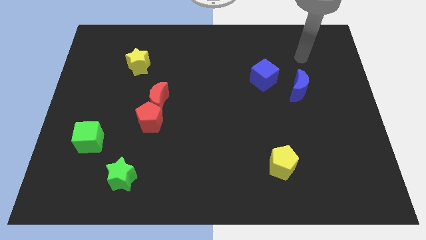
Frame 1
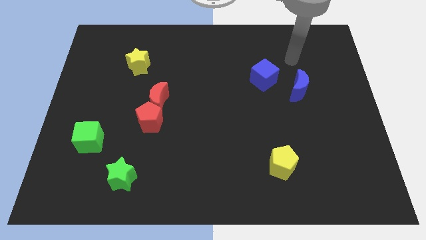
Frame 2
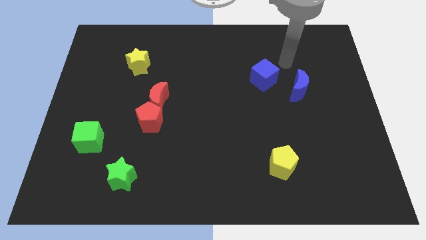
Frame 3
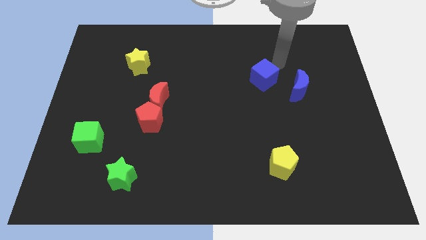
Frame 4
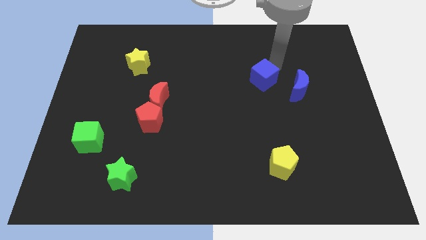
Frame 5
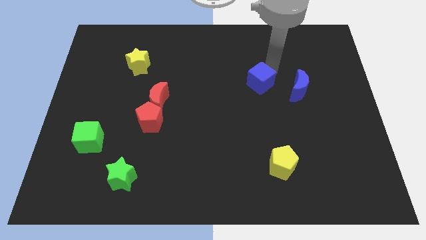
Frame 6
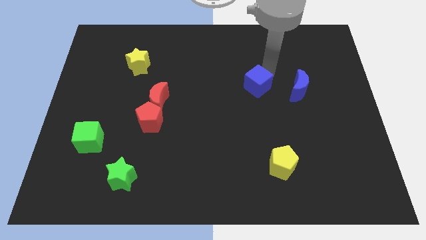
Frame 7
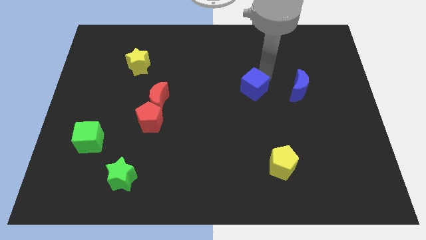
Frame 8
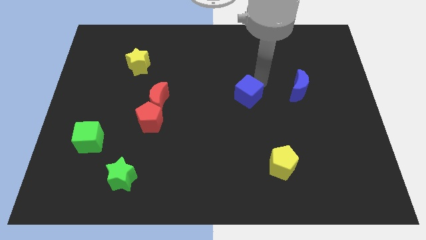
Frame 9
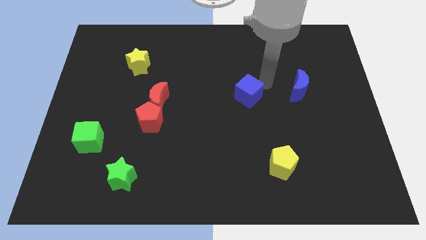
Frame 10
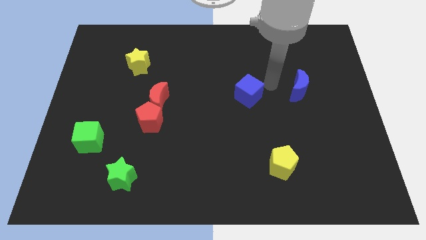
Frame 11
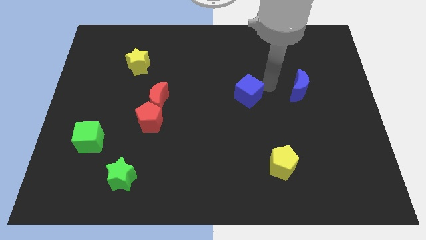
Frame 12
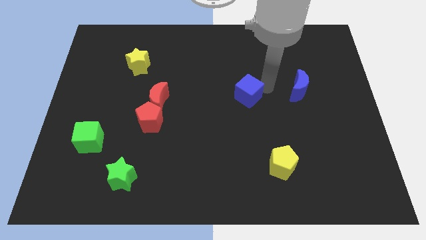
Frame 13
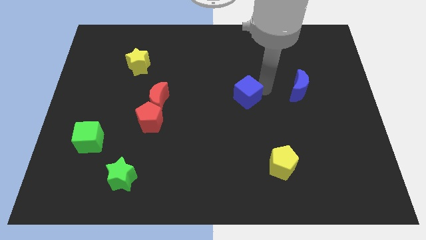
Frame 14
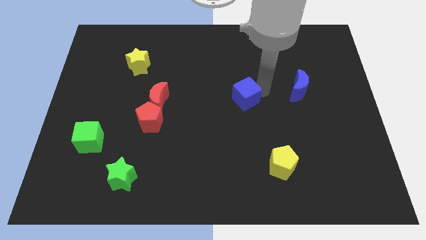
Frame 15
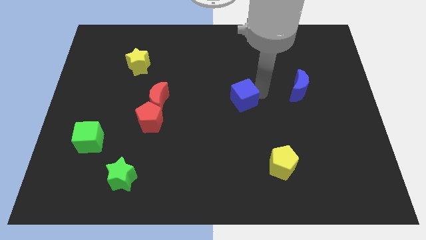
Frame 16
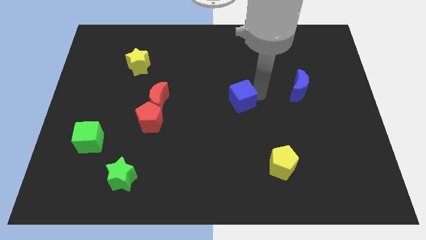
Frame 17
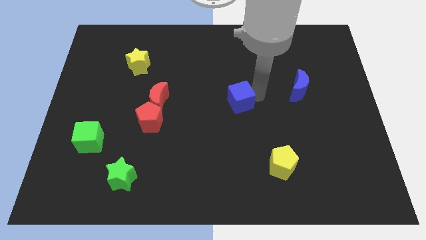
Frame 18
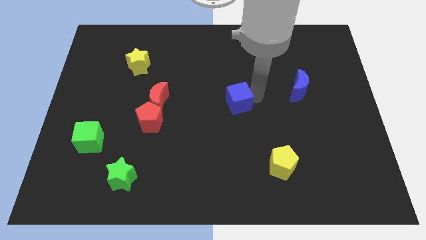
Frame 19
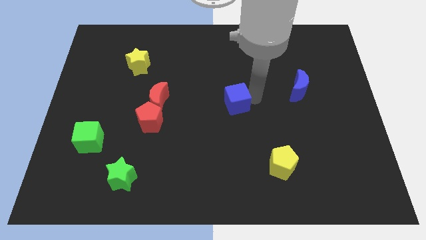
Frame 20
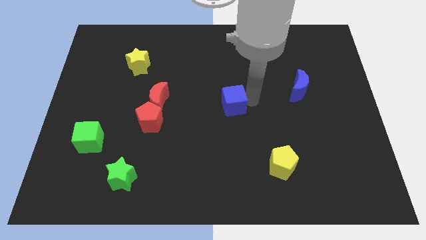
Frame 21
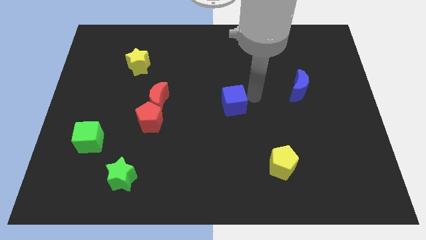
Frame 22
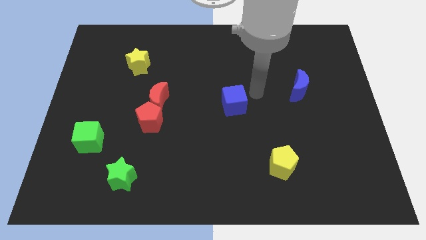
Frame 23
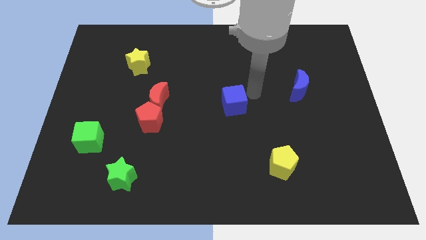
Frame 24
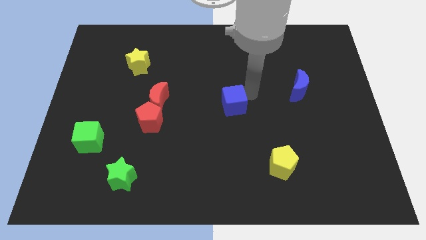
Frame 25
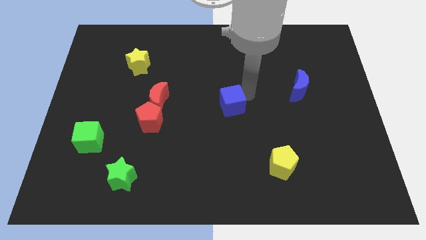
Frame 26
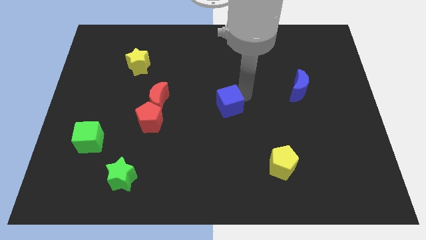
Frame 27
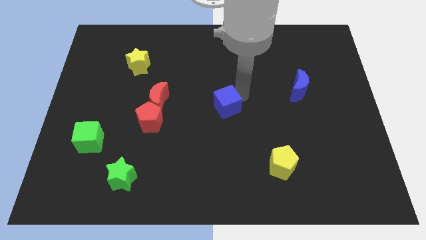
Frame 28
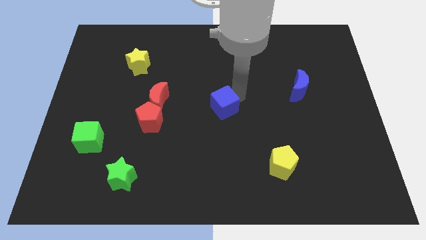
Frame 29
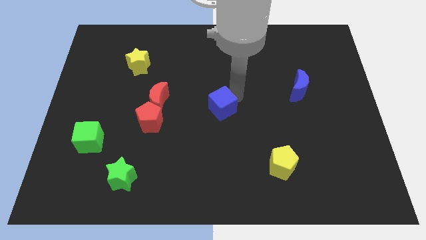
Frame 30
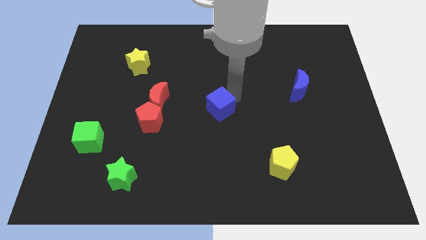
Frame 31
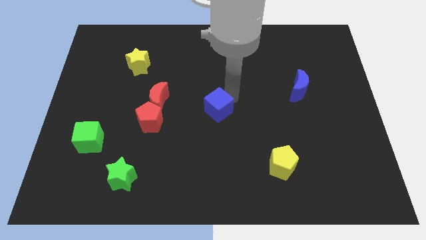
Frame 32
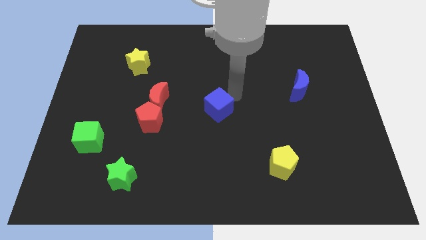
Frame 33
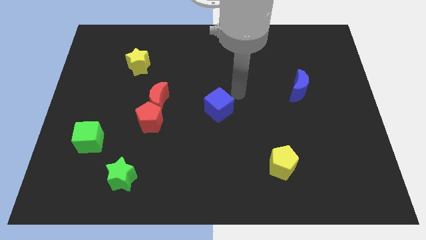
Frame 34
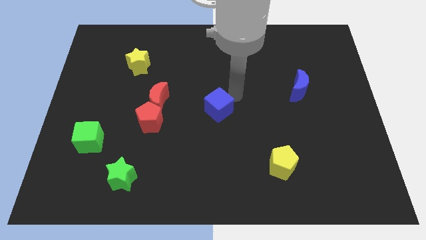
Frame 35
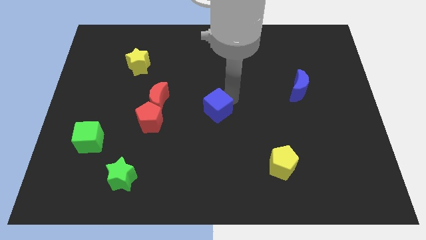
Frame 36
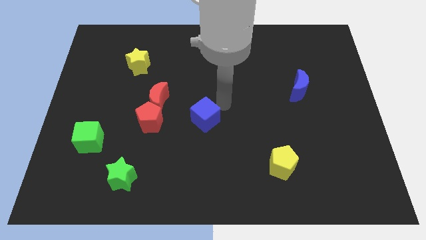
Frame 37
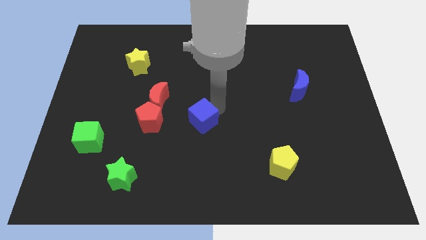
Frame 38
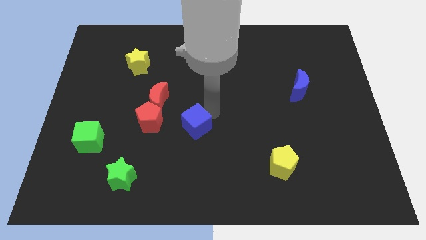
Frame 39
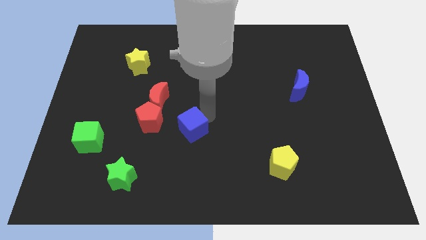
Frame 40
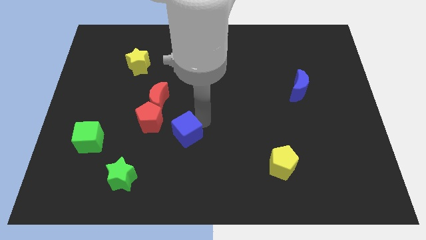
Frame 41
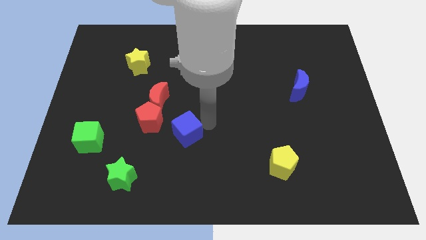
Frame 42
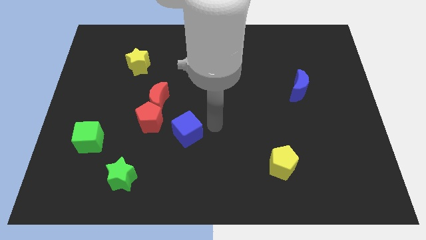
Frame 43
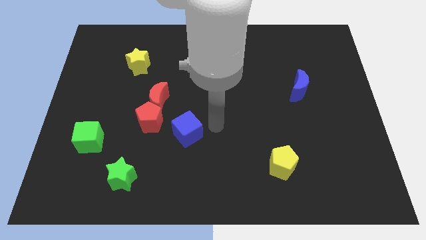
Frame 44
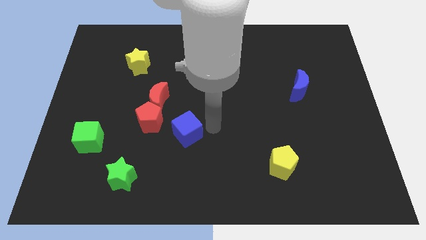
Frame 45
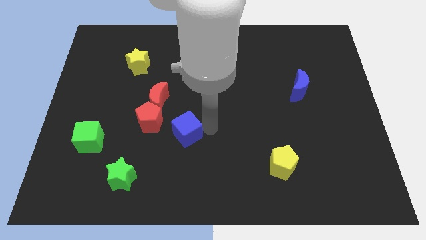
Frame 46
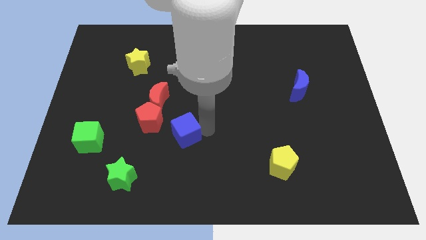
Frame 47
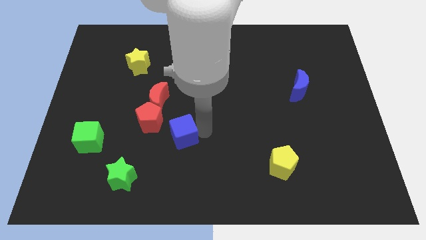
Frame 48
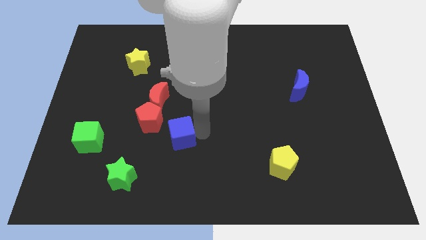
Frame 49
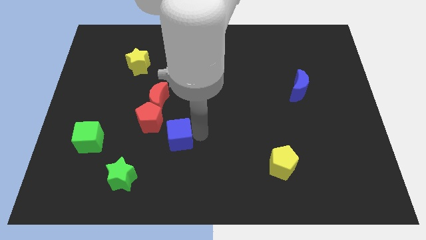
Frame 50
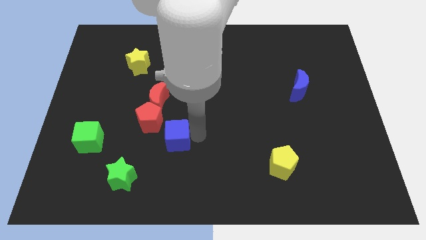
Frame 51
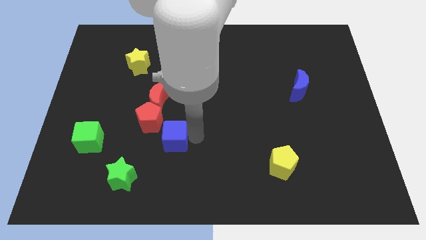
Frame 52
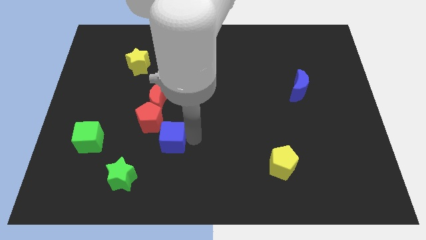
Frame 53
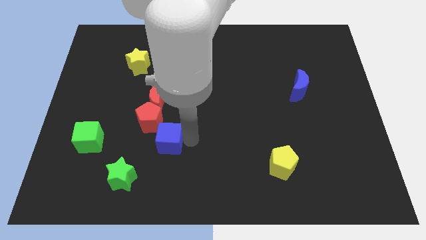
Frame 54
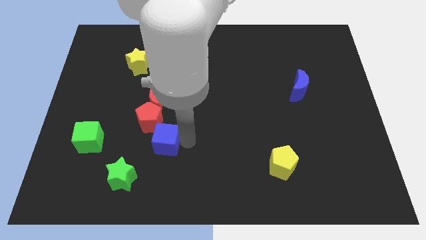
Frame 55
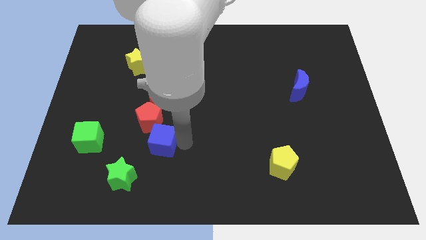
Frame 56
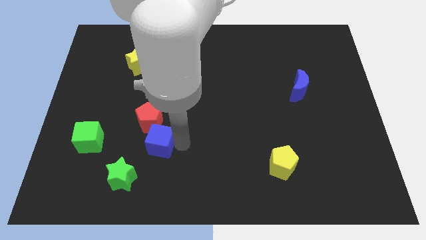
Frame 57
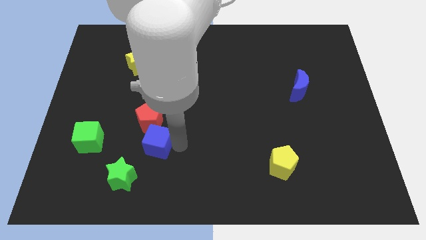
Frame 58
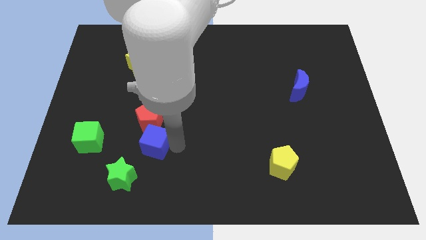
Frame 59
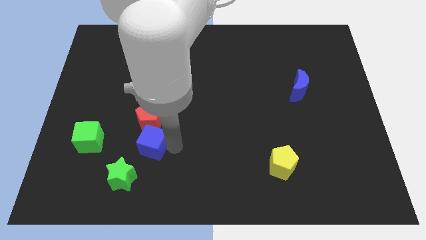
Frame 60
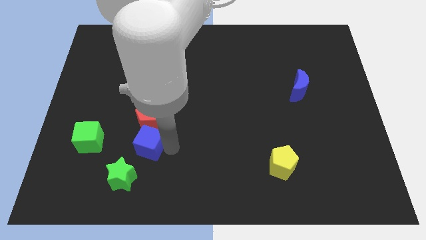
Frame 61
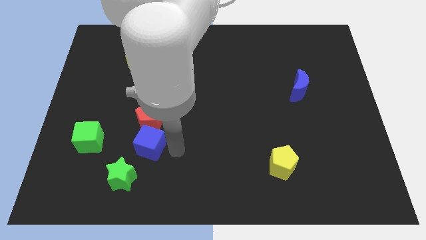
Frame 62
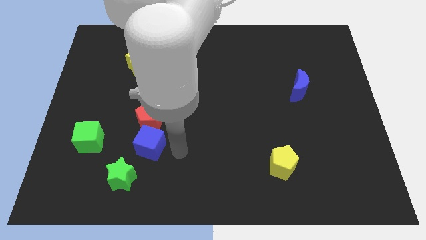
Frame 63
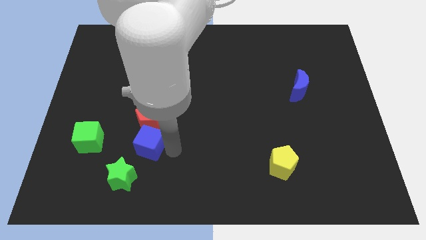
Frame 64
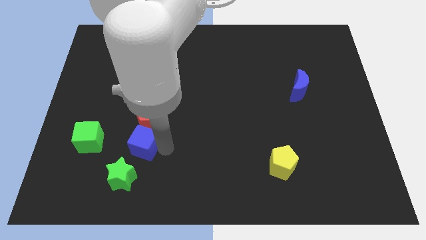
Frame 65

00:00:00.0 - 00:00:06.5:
push the blue cube to the bottom left of the red pentagon

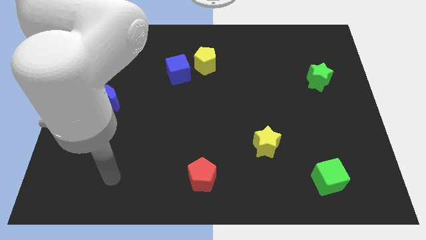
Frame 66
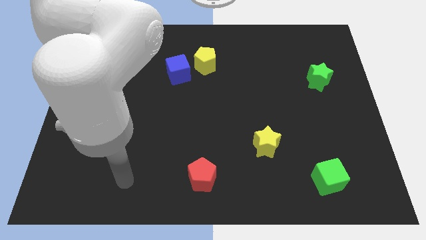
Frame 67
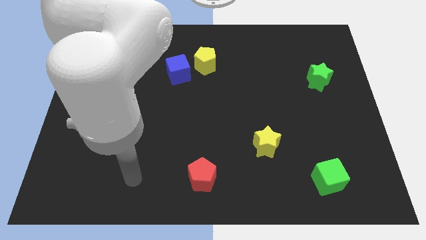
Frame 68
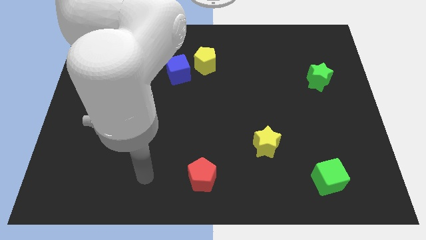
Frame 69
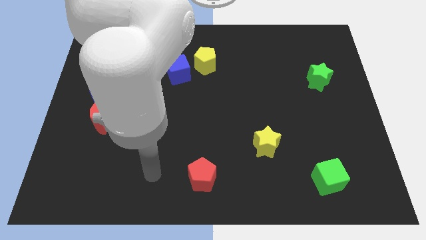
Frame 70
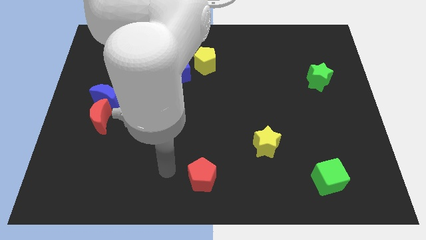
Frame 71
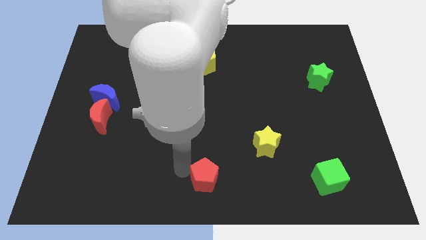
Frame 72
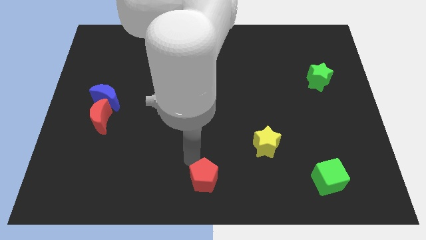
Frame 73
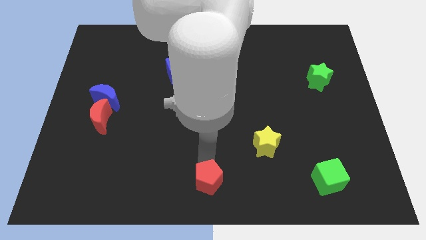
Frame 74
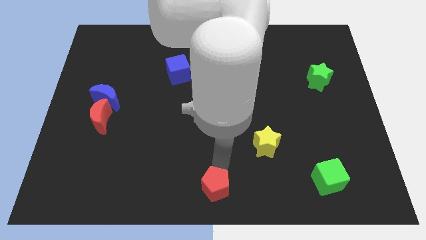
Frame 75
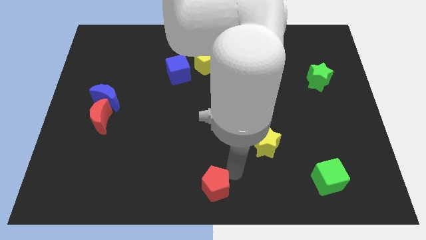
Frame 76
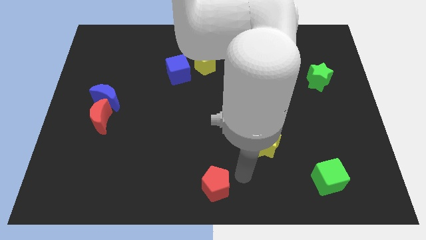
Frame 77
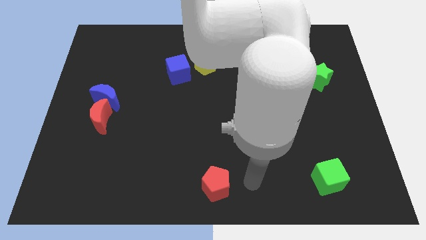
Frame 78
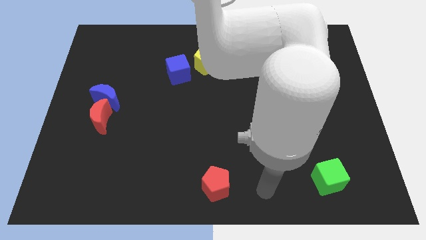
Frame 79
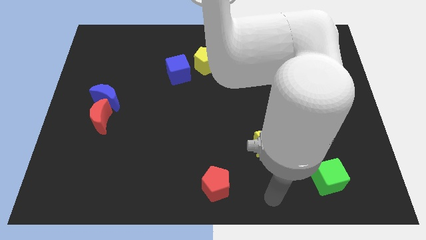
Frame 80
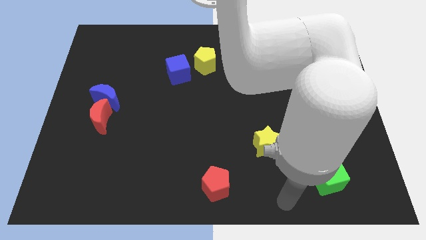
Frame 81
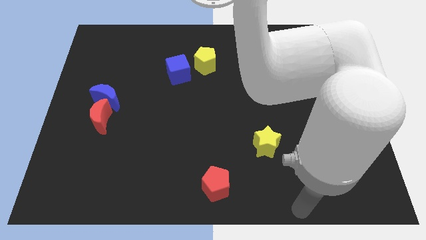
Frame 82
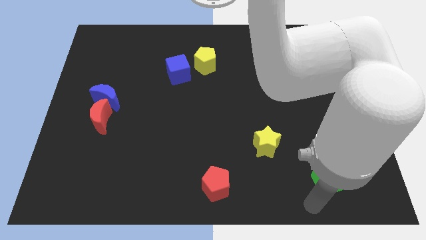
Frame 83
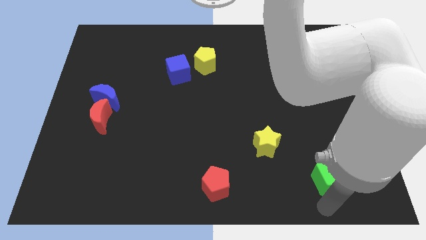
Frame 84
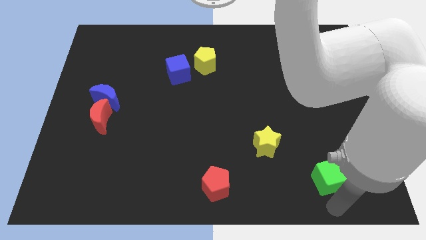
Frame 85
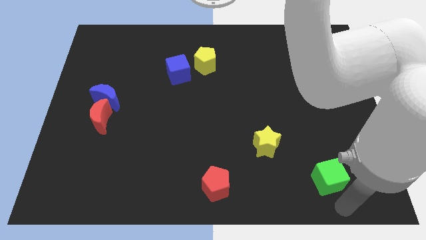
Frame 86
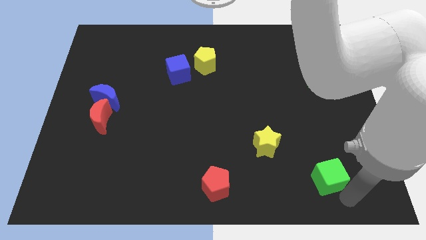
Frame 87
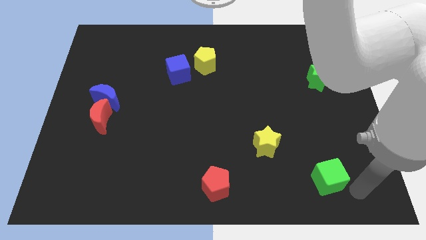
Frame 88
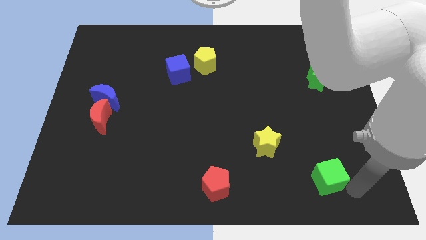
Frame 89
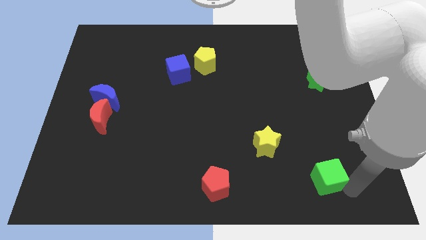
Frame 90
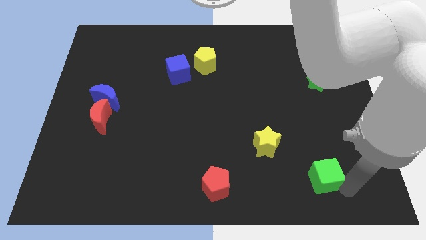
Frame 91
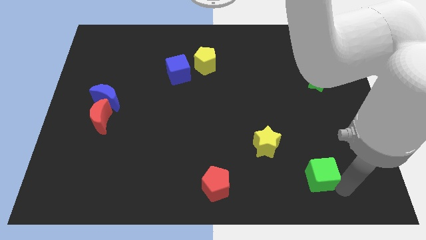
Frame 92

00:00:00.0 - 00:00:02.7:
move the green cube to the bottom right side of the yellow star
